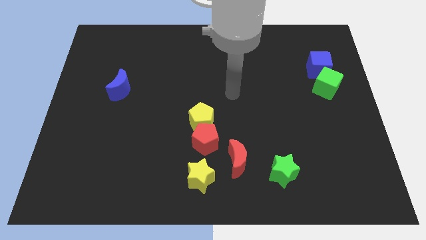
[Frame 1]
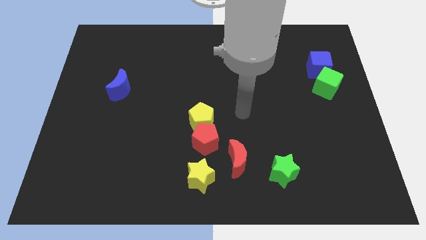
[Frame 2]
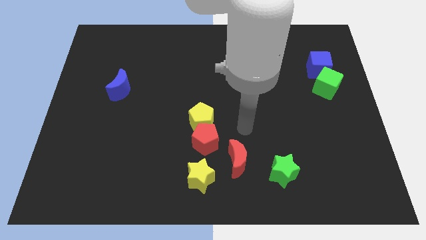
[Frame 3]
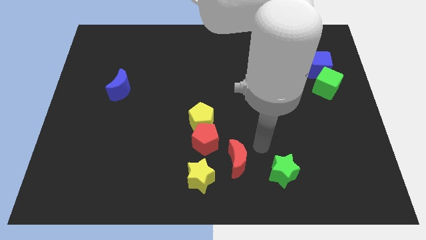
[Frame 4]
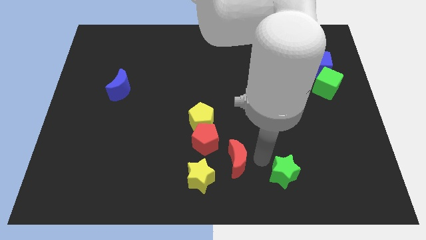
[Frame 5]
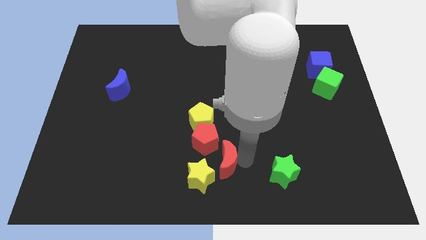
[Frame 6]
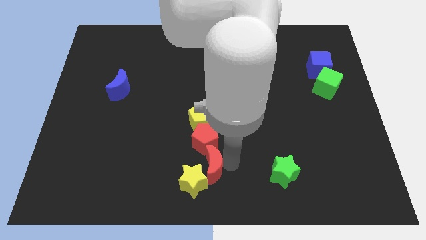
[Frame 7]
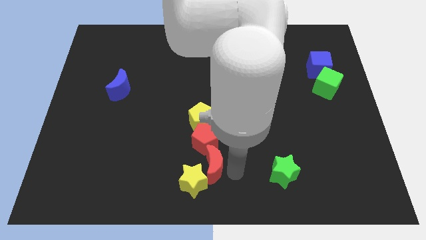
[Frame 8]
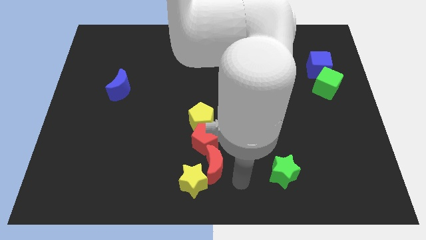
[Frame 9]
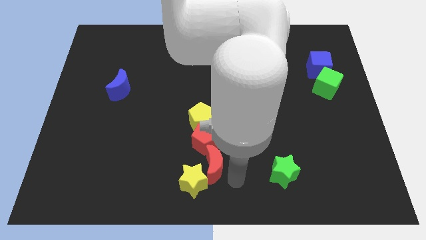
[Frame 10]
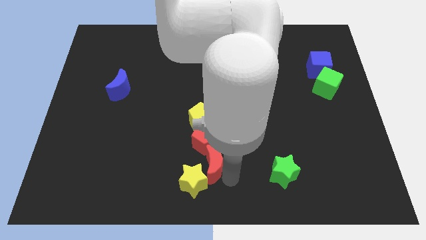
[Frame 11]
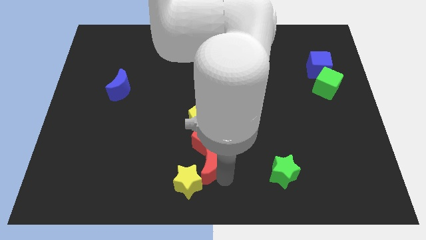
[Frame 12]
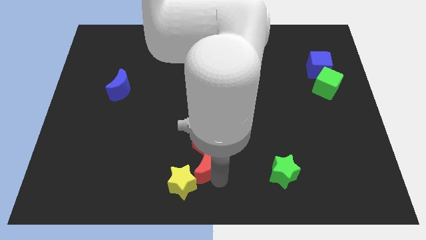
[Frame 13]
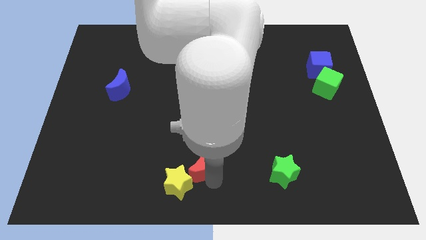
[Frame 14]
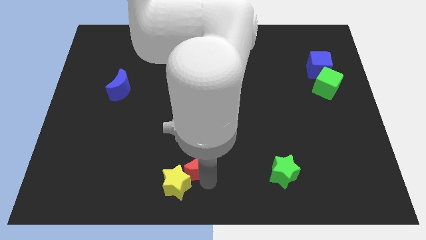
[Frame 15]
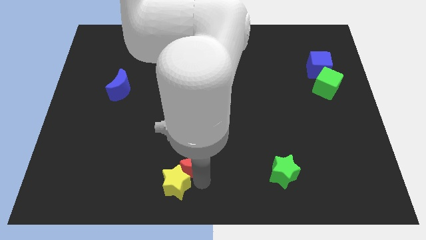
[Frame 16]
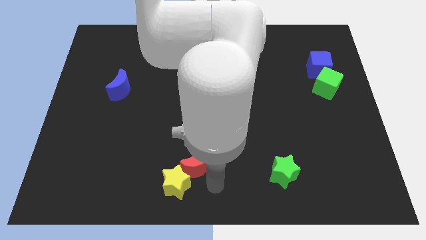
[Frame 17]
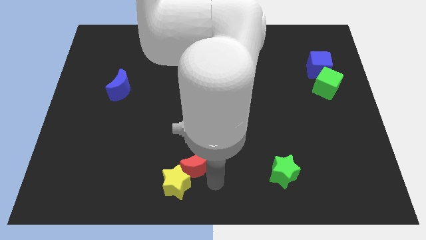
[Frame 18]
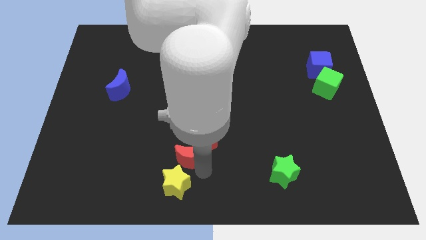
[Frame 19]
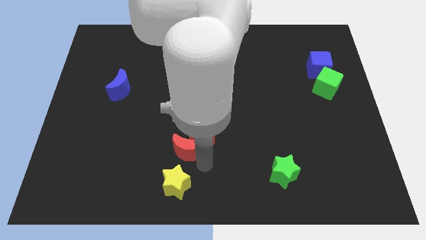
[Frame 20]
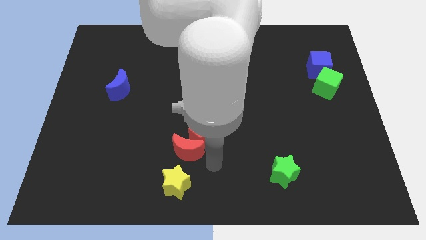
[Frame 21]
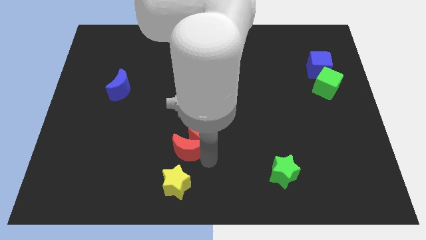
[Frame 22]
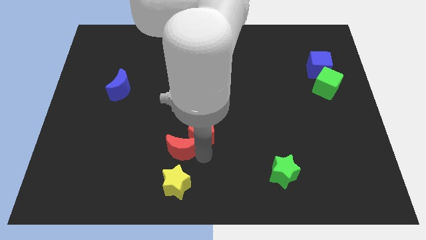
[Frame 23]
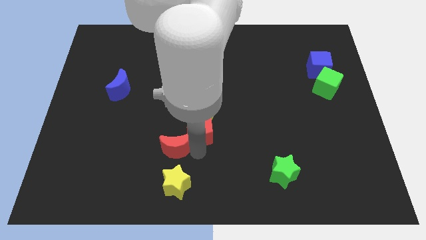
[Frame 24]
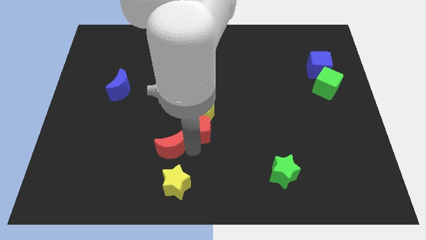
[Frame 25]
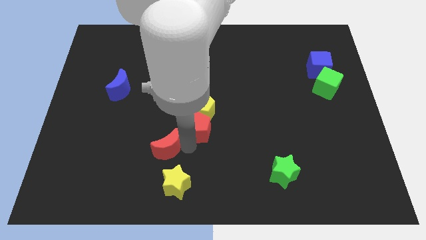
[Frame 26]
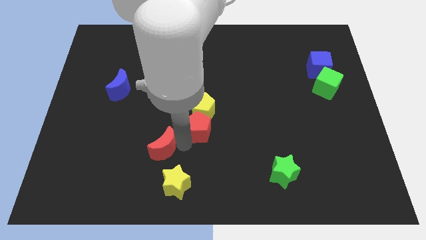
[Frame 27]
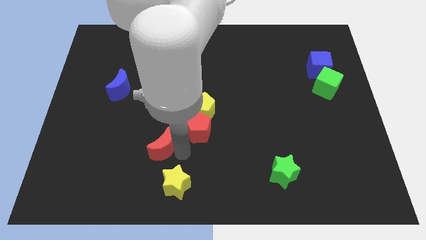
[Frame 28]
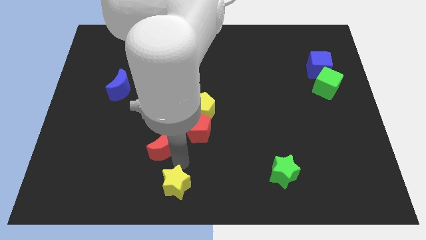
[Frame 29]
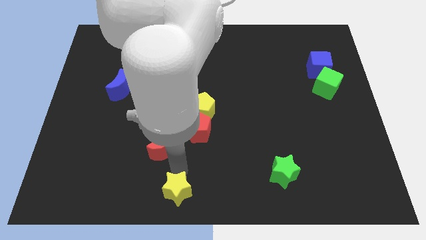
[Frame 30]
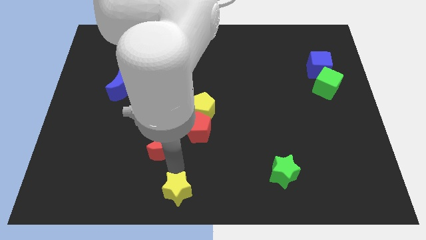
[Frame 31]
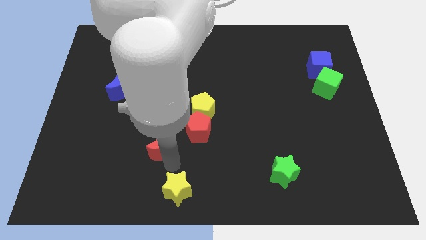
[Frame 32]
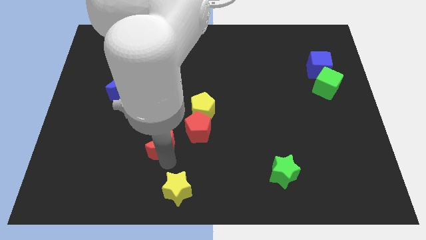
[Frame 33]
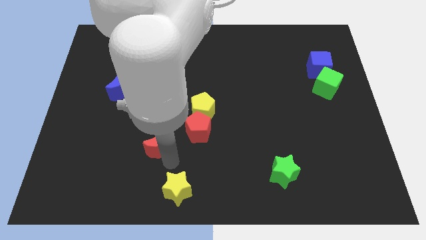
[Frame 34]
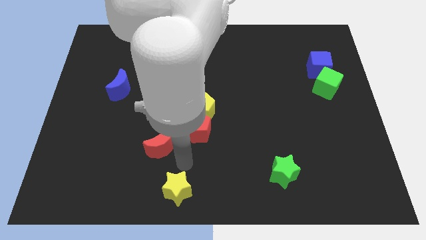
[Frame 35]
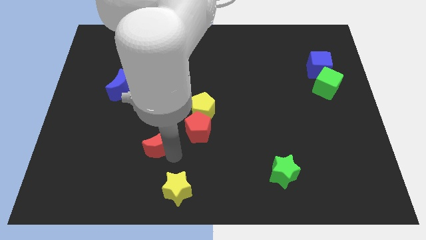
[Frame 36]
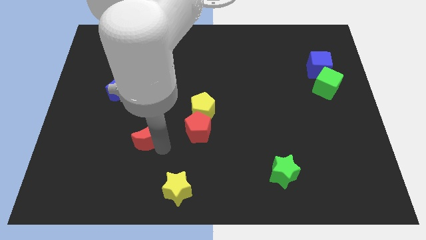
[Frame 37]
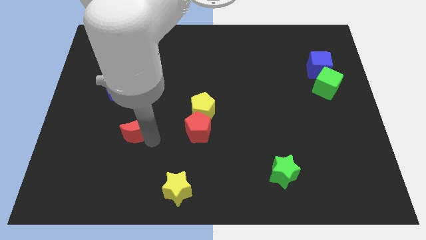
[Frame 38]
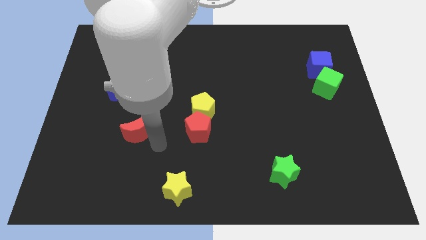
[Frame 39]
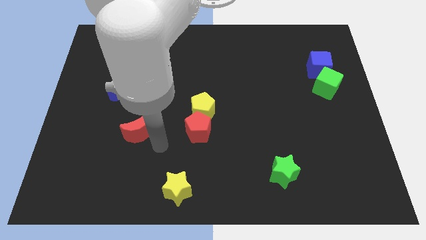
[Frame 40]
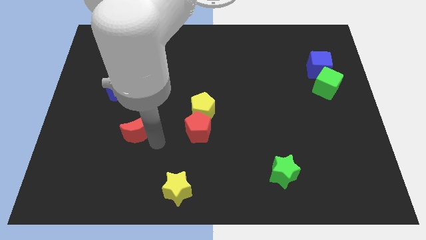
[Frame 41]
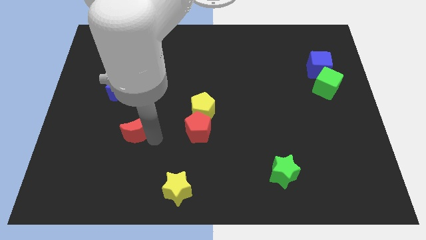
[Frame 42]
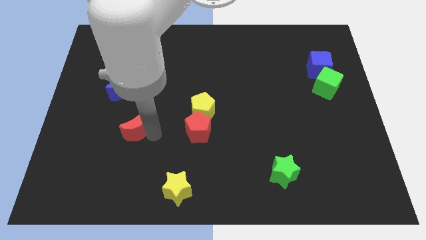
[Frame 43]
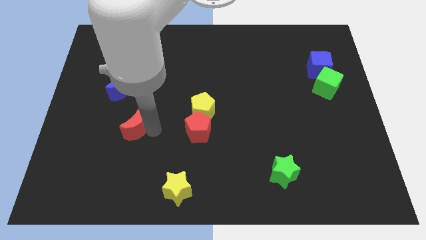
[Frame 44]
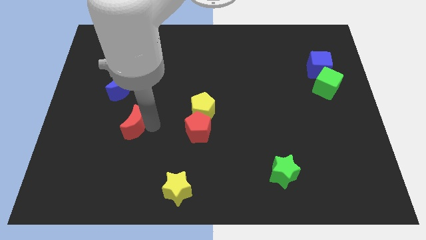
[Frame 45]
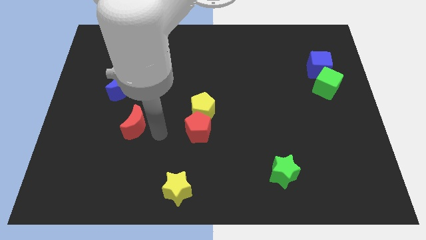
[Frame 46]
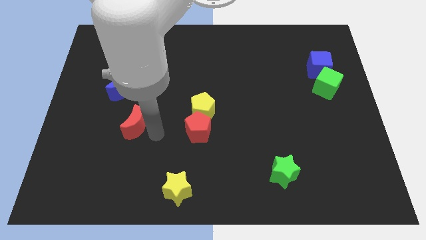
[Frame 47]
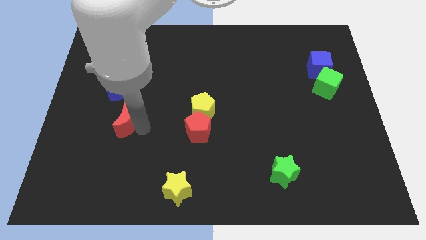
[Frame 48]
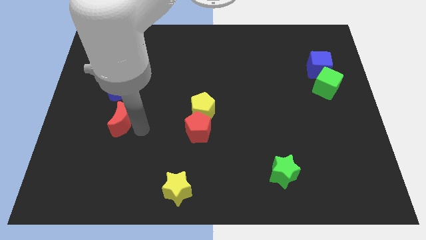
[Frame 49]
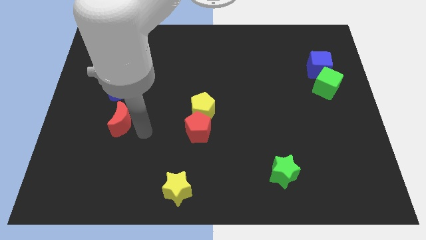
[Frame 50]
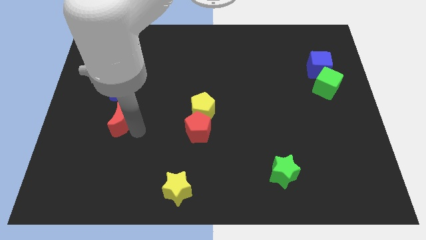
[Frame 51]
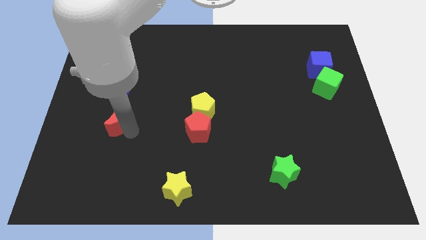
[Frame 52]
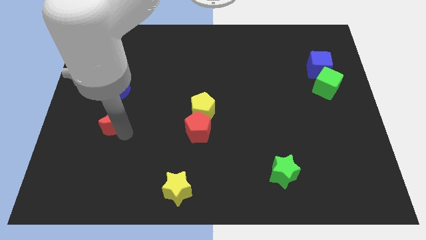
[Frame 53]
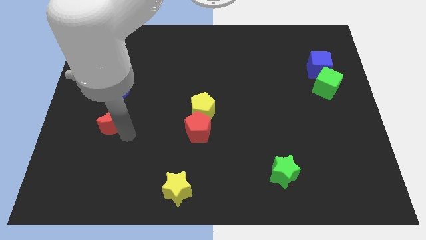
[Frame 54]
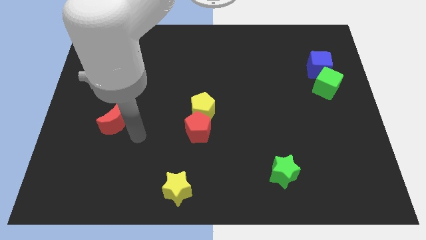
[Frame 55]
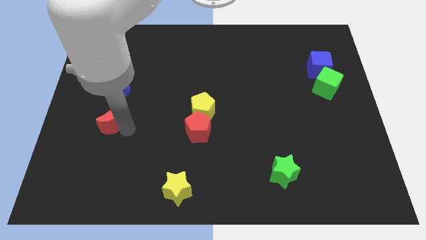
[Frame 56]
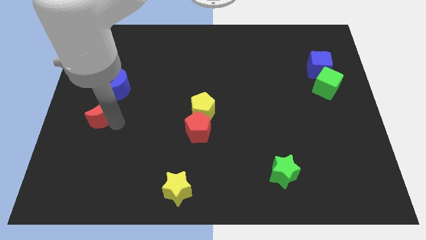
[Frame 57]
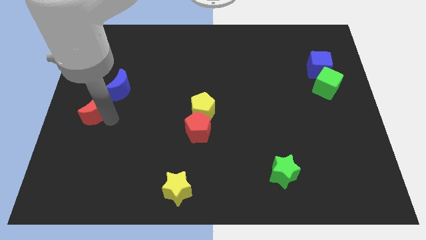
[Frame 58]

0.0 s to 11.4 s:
slide the red moon to the left side of the board

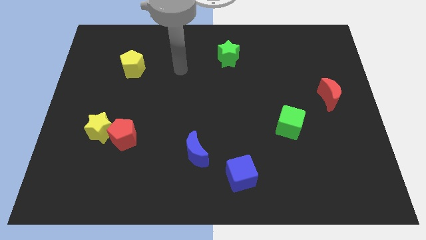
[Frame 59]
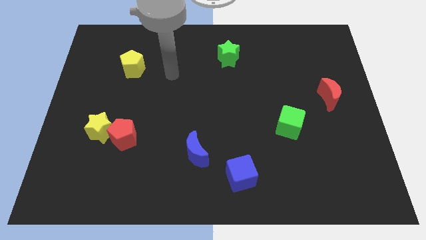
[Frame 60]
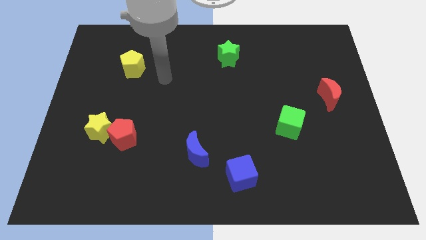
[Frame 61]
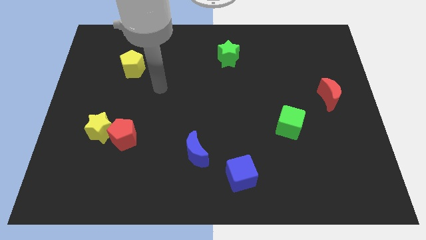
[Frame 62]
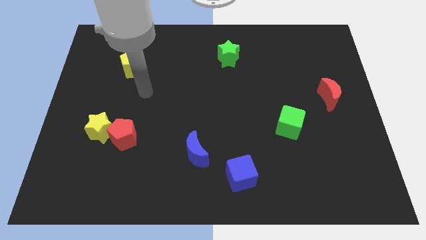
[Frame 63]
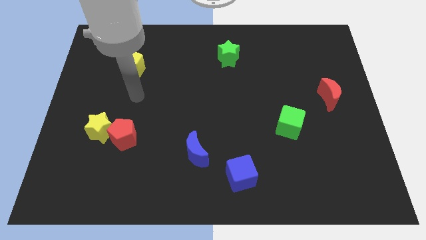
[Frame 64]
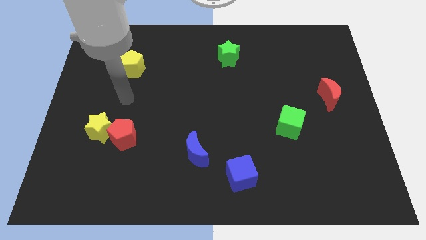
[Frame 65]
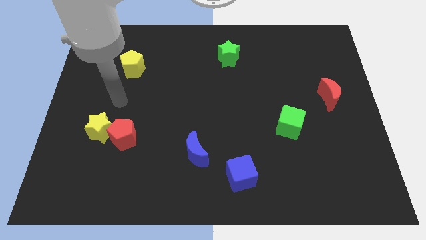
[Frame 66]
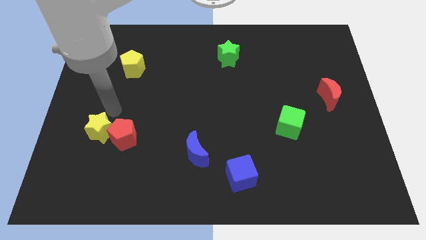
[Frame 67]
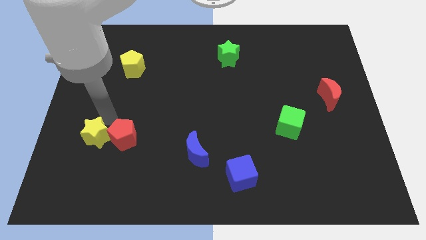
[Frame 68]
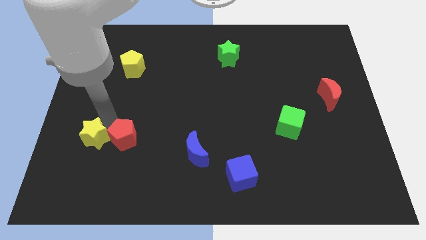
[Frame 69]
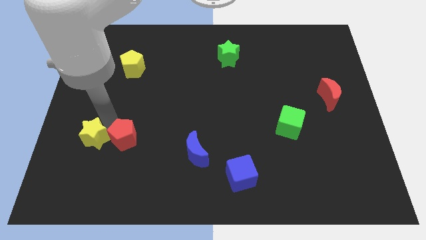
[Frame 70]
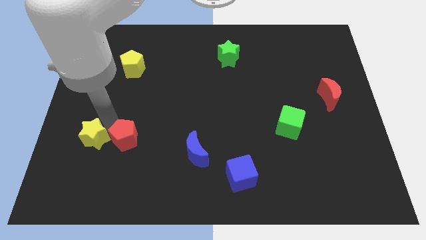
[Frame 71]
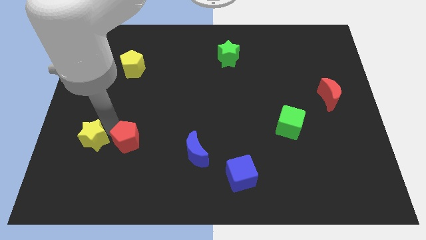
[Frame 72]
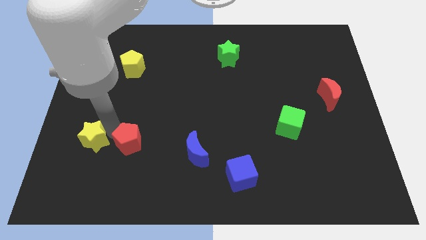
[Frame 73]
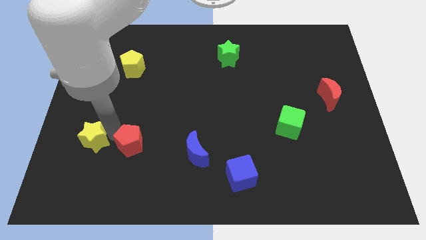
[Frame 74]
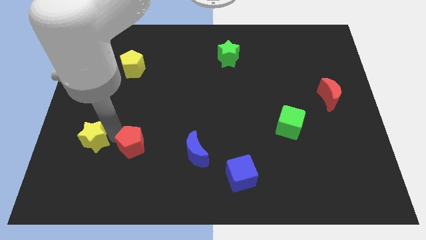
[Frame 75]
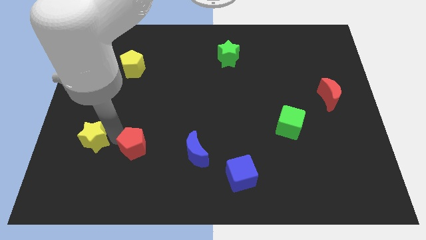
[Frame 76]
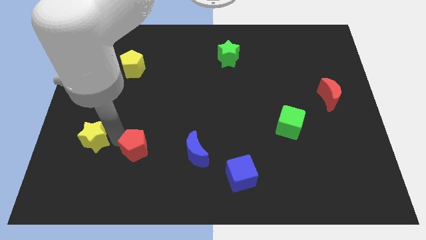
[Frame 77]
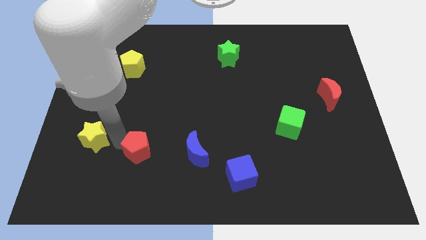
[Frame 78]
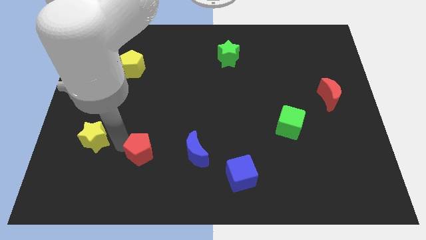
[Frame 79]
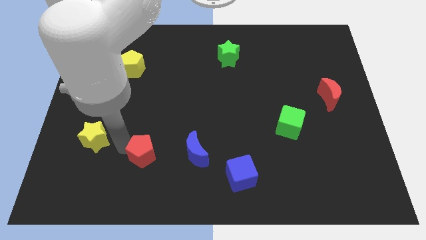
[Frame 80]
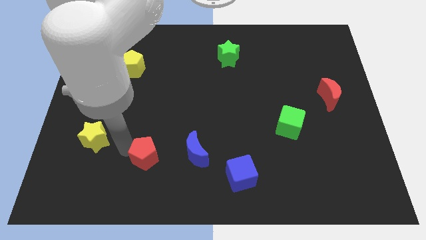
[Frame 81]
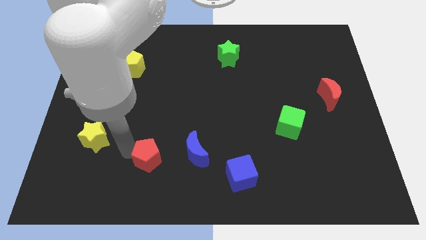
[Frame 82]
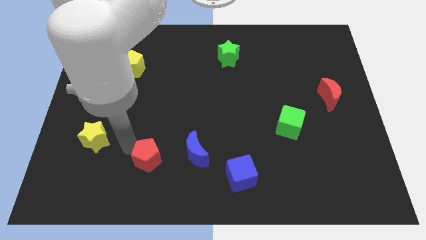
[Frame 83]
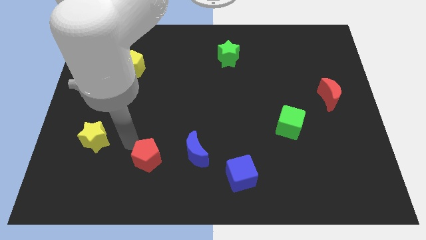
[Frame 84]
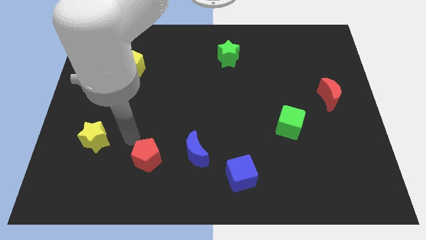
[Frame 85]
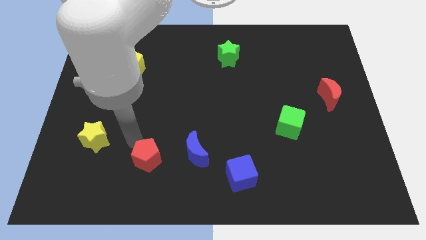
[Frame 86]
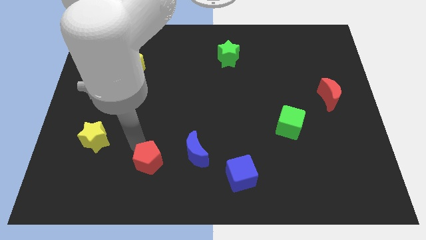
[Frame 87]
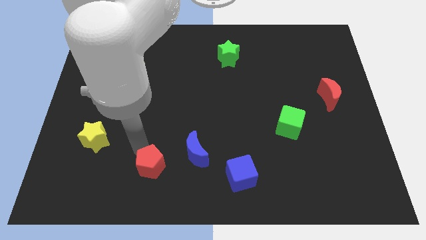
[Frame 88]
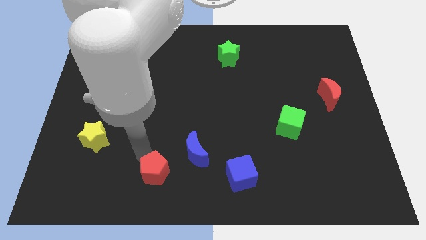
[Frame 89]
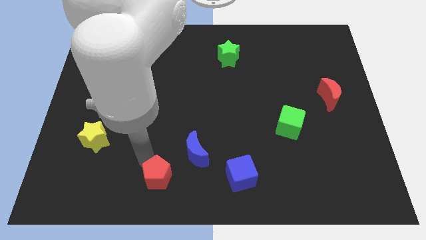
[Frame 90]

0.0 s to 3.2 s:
push the red pentagon to the bottom
